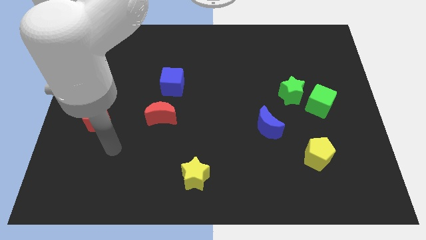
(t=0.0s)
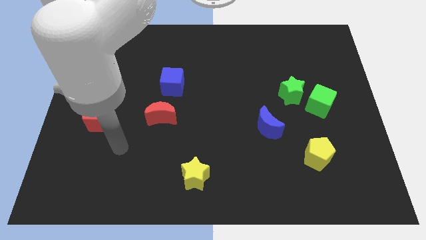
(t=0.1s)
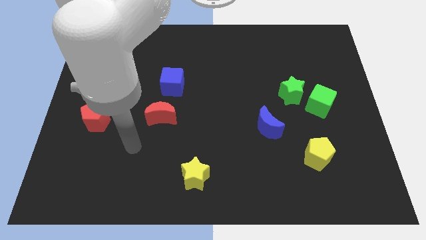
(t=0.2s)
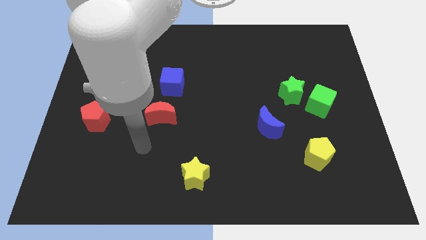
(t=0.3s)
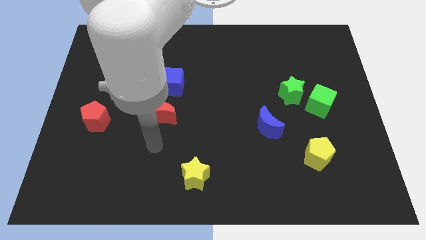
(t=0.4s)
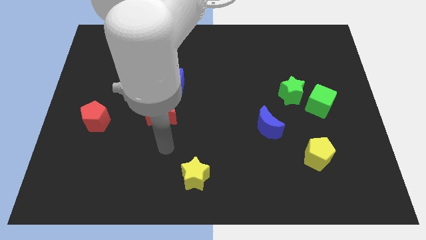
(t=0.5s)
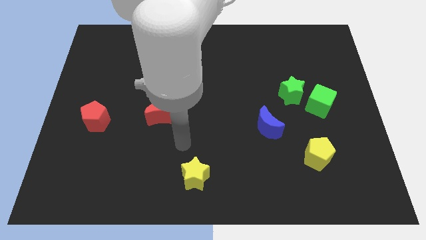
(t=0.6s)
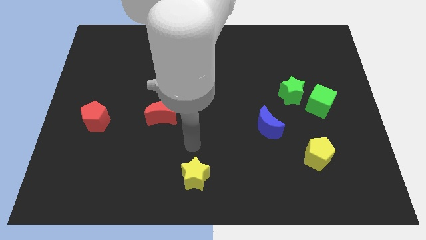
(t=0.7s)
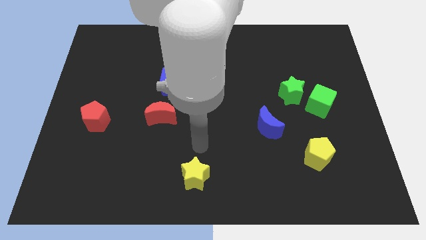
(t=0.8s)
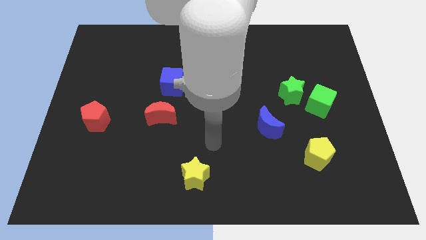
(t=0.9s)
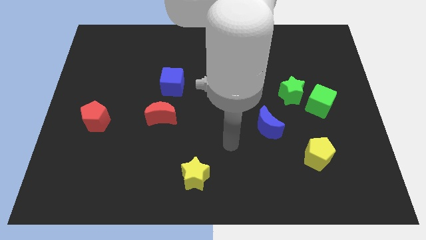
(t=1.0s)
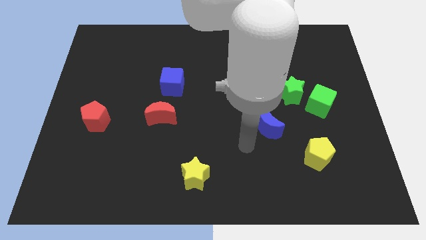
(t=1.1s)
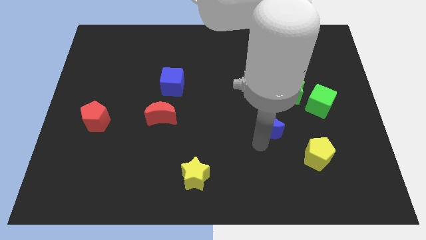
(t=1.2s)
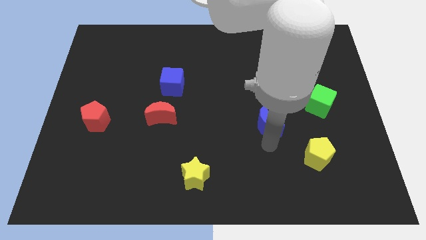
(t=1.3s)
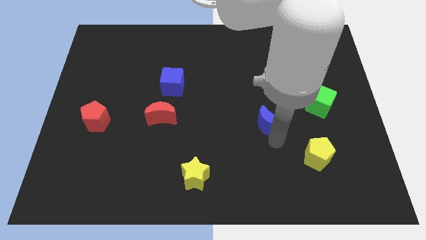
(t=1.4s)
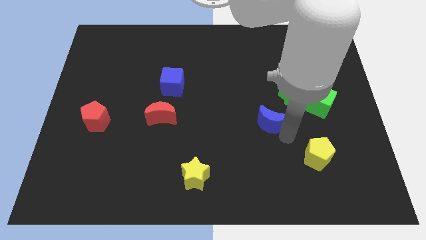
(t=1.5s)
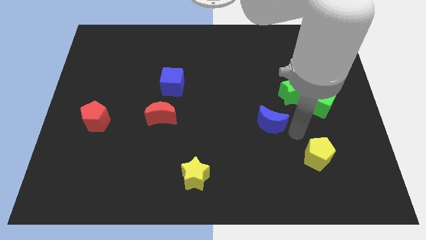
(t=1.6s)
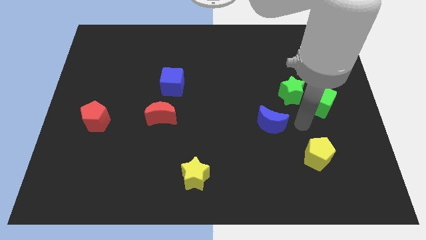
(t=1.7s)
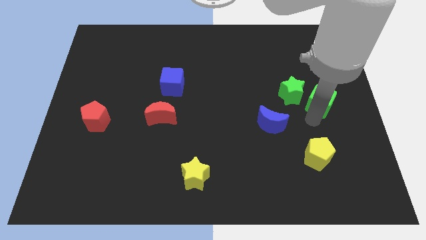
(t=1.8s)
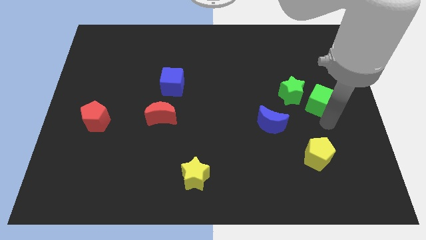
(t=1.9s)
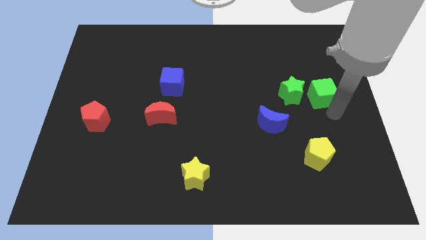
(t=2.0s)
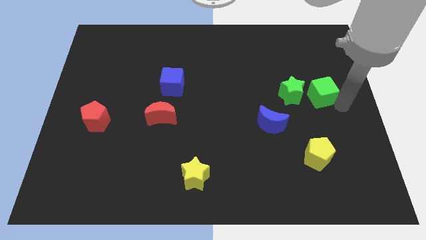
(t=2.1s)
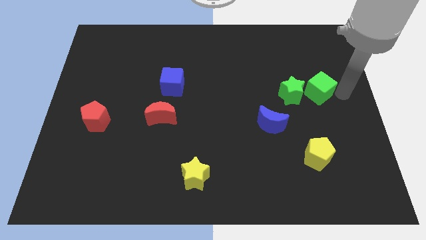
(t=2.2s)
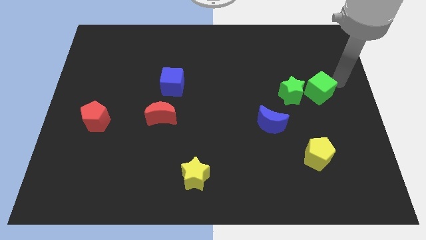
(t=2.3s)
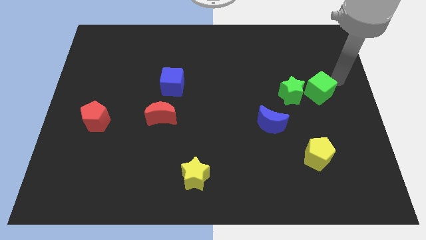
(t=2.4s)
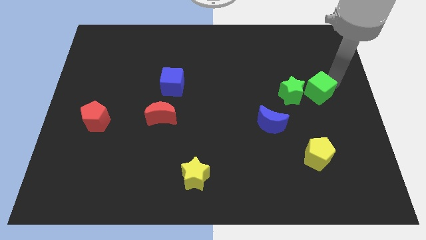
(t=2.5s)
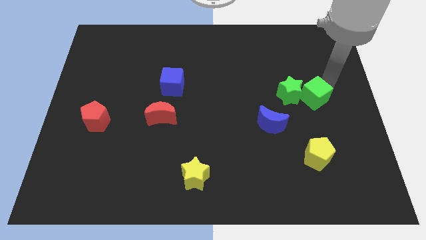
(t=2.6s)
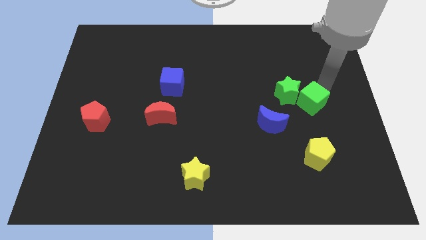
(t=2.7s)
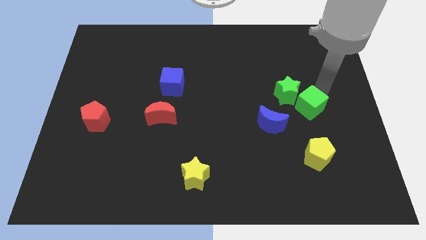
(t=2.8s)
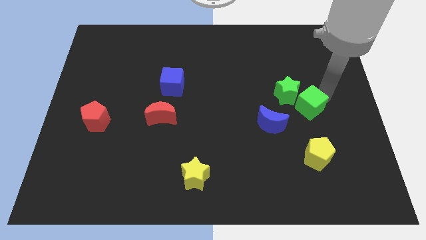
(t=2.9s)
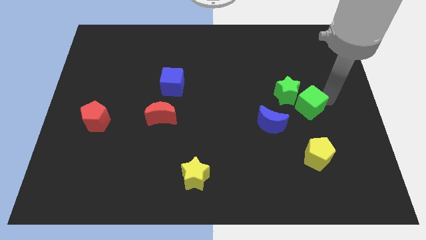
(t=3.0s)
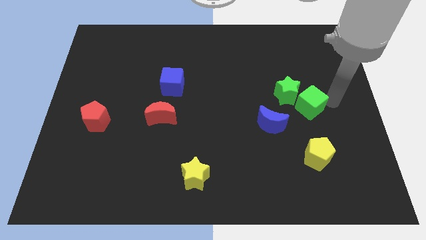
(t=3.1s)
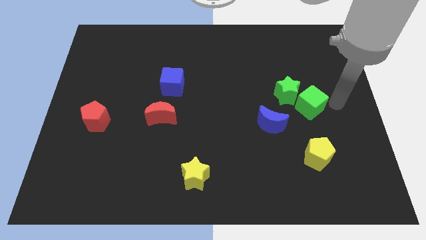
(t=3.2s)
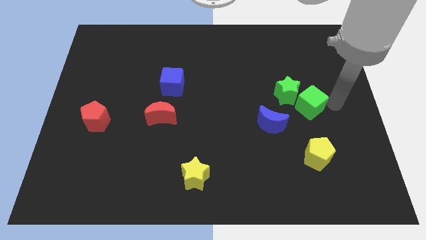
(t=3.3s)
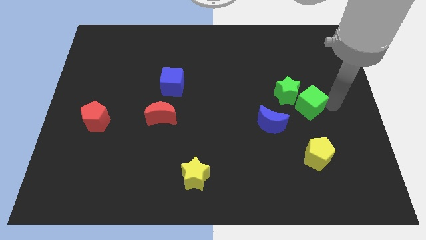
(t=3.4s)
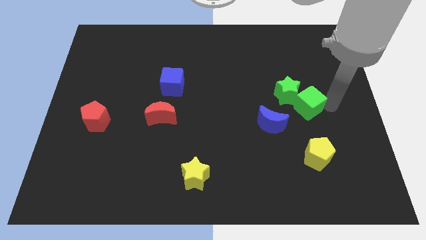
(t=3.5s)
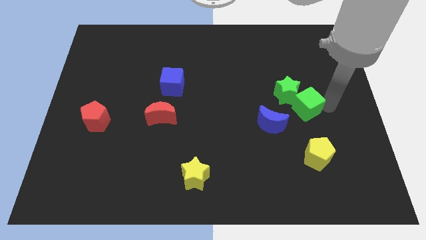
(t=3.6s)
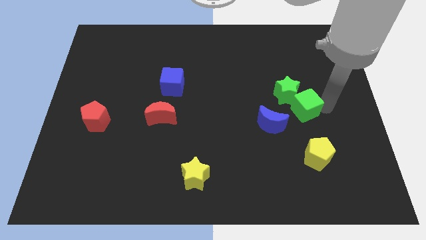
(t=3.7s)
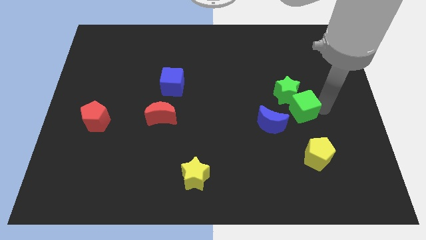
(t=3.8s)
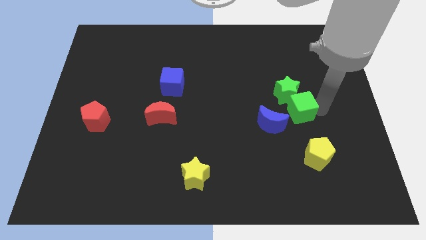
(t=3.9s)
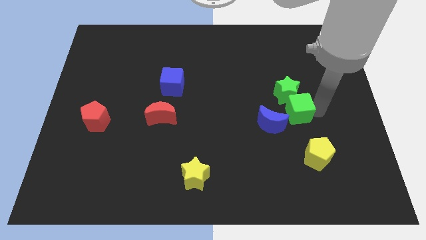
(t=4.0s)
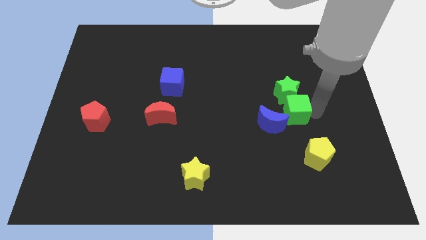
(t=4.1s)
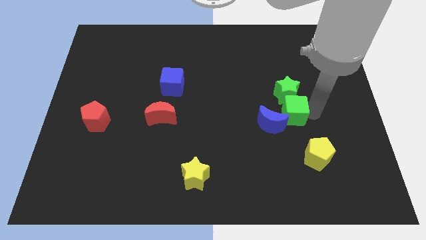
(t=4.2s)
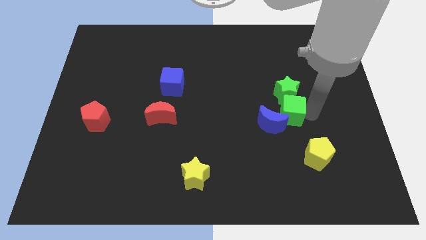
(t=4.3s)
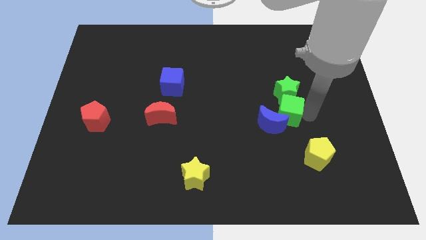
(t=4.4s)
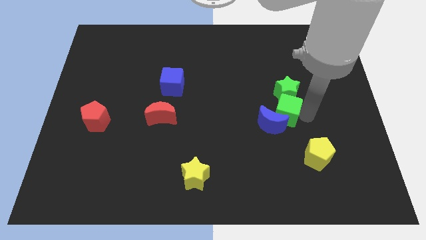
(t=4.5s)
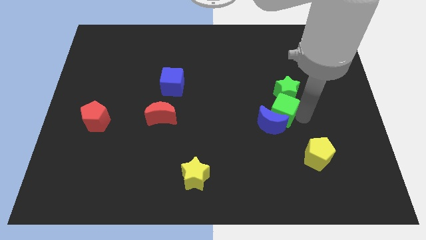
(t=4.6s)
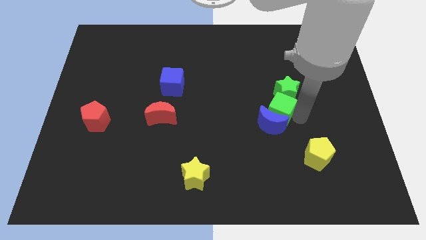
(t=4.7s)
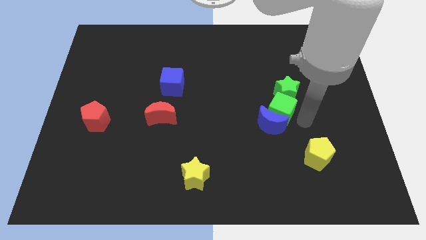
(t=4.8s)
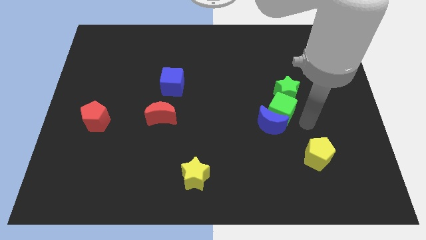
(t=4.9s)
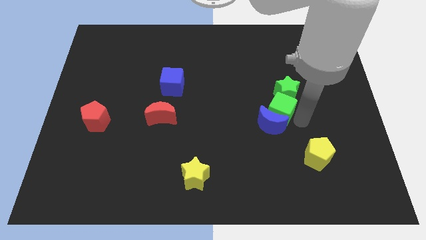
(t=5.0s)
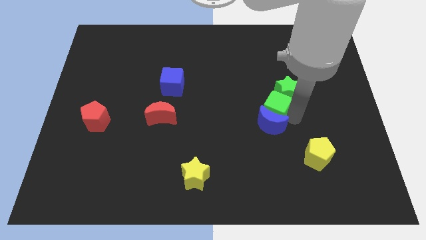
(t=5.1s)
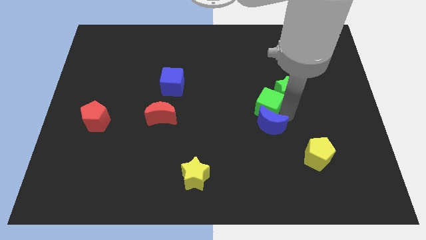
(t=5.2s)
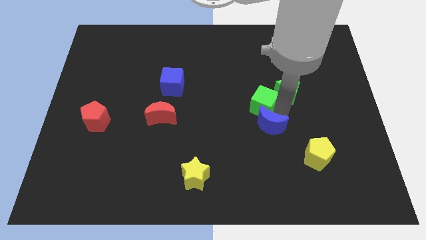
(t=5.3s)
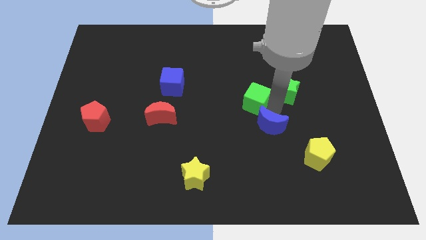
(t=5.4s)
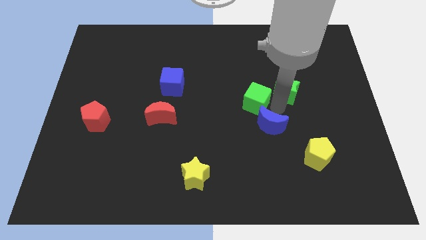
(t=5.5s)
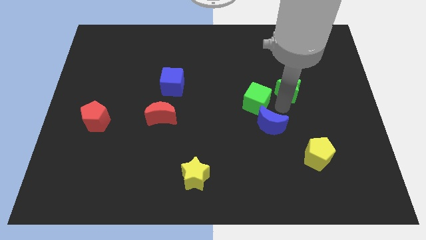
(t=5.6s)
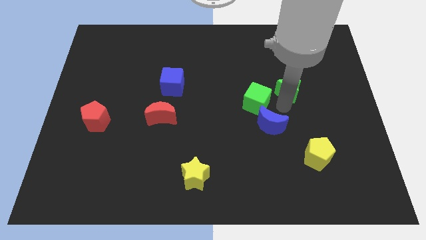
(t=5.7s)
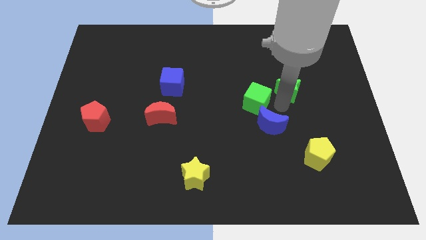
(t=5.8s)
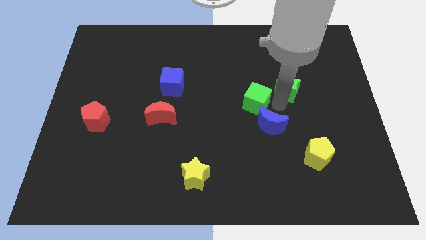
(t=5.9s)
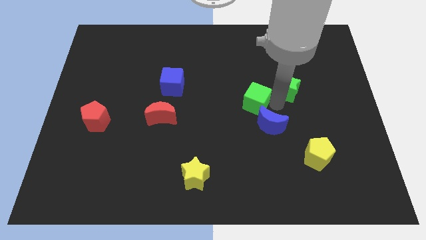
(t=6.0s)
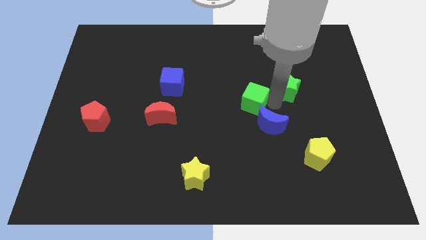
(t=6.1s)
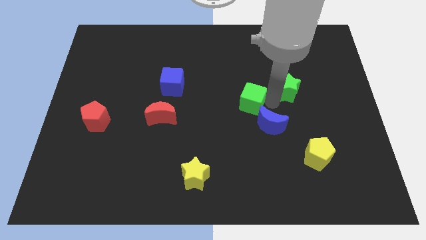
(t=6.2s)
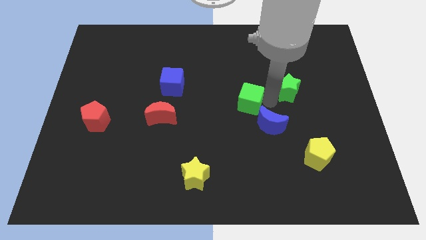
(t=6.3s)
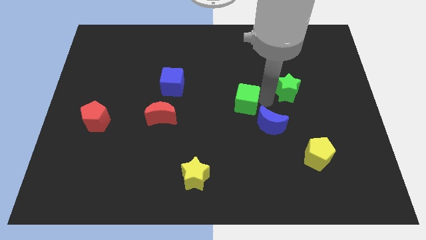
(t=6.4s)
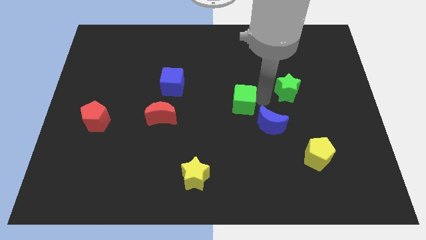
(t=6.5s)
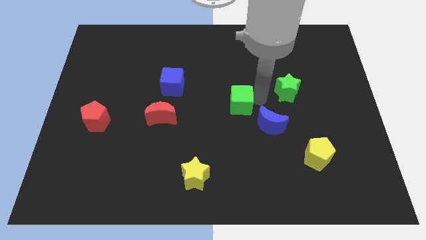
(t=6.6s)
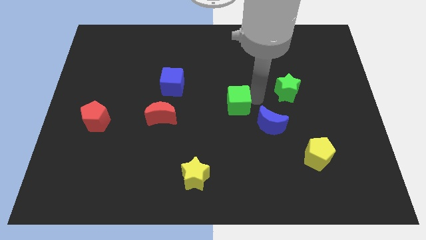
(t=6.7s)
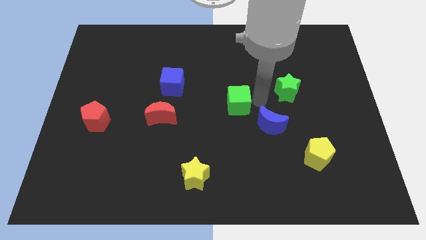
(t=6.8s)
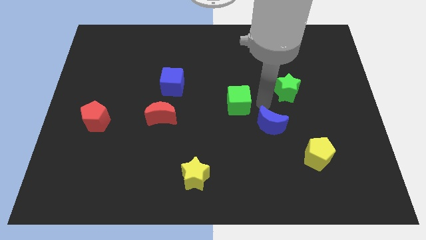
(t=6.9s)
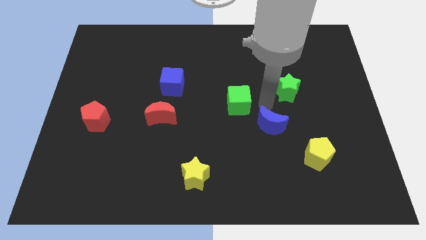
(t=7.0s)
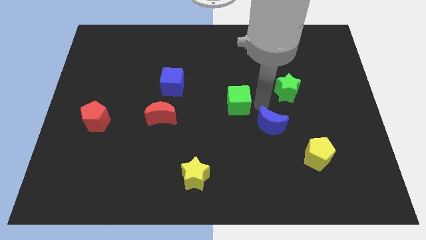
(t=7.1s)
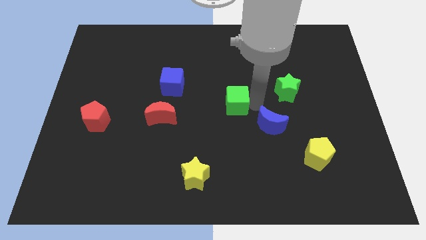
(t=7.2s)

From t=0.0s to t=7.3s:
move the green cube left

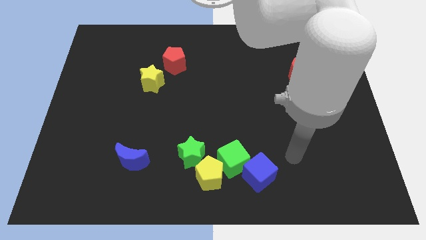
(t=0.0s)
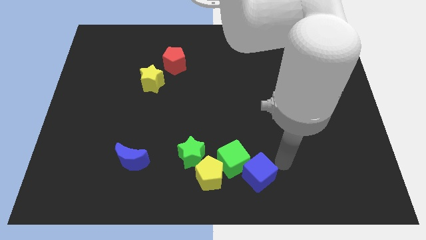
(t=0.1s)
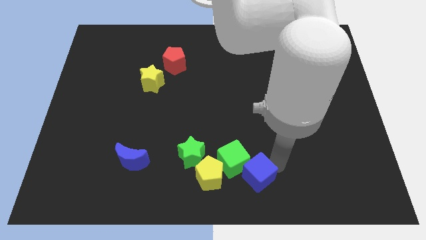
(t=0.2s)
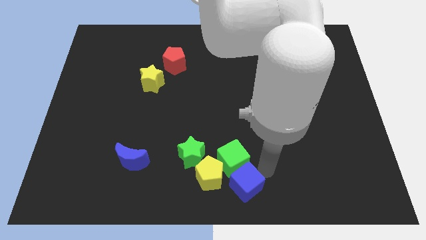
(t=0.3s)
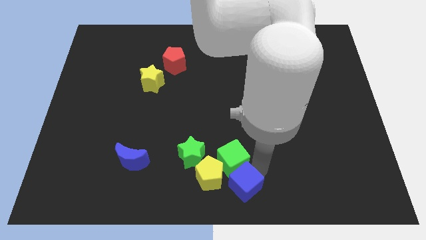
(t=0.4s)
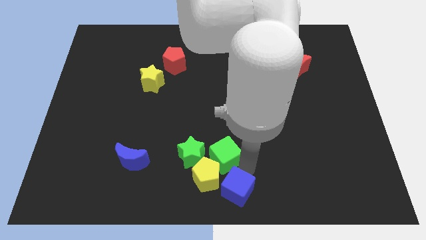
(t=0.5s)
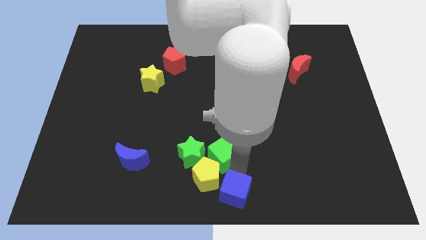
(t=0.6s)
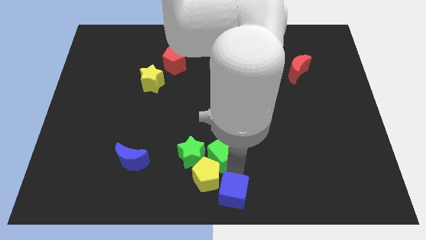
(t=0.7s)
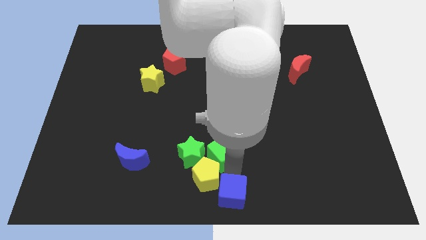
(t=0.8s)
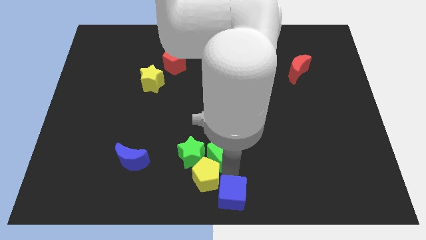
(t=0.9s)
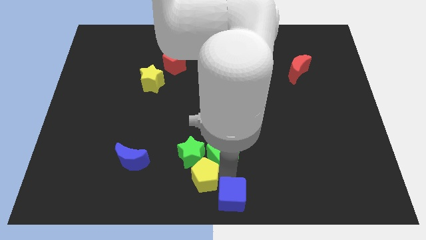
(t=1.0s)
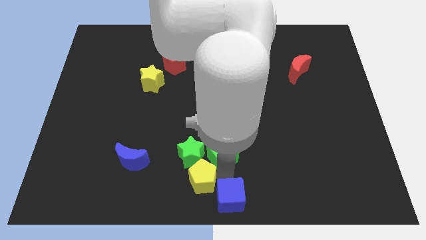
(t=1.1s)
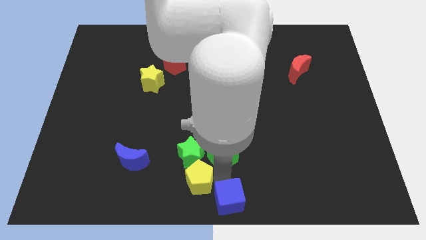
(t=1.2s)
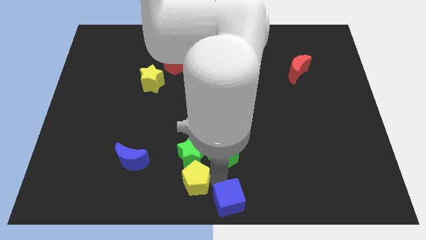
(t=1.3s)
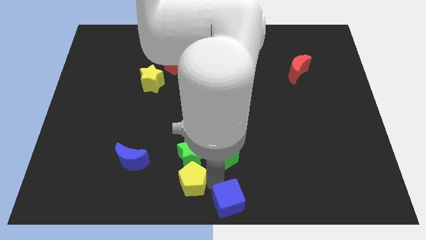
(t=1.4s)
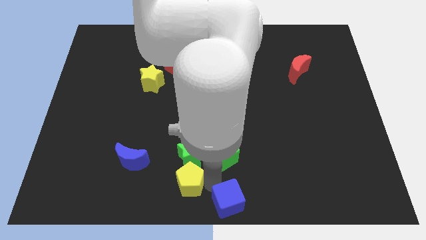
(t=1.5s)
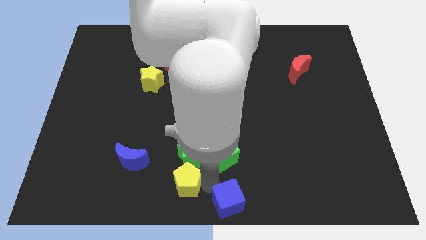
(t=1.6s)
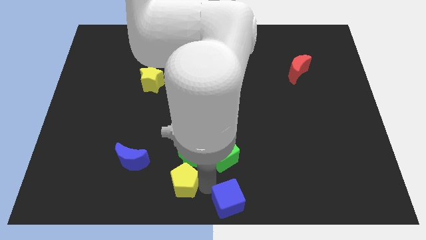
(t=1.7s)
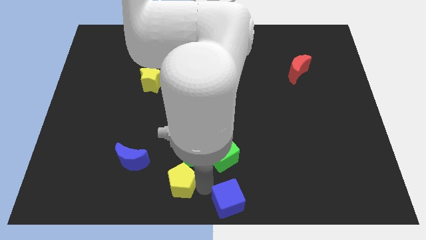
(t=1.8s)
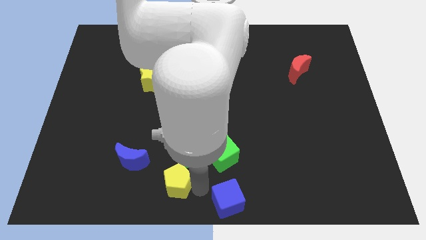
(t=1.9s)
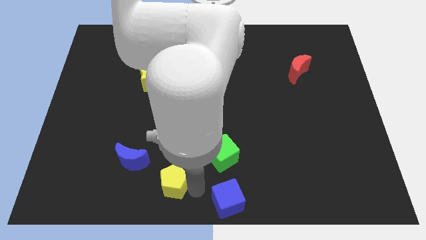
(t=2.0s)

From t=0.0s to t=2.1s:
slightly push the yellow pentagon left
